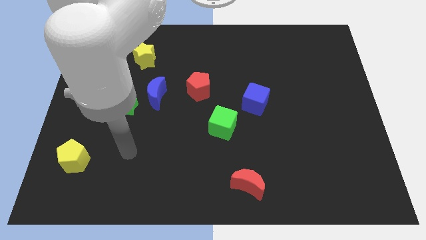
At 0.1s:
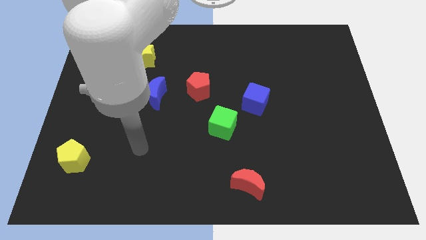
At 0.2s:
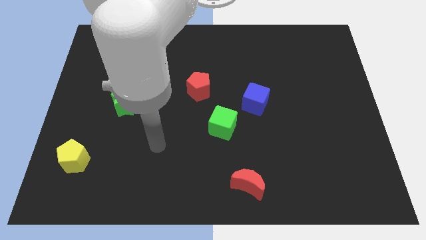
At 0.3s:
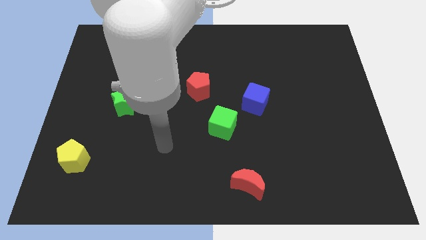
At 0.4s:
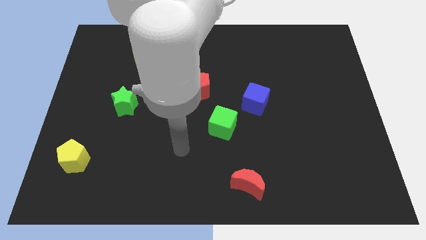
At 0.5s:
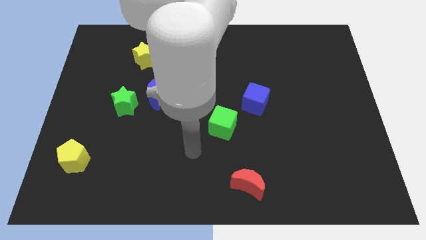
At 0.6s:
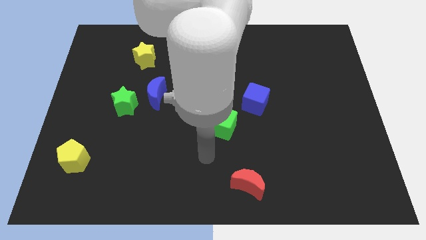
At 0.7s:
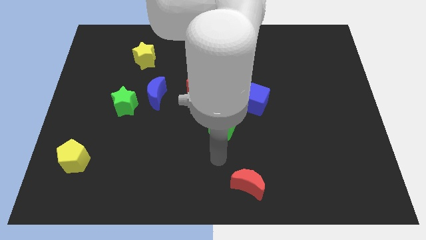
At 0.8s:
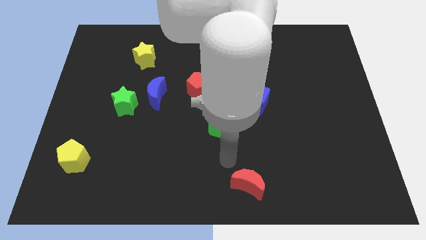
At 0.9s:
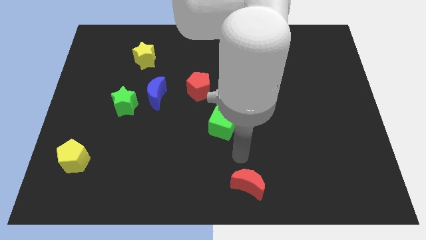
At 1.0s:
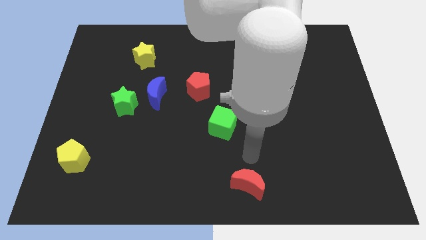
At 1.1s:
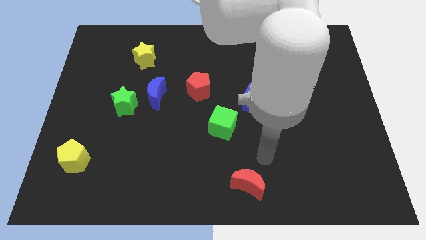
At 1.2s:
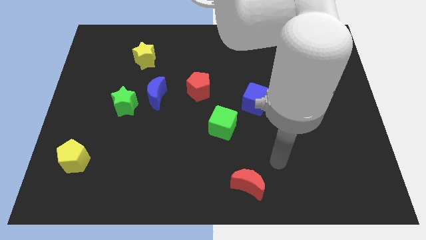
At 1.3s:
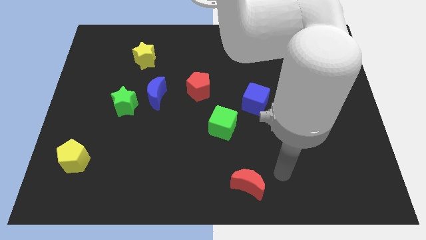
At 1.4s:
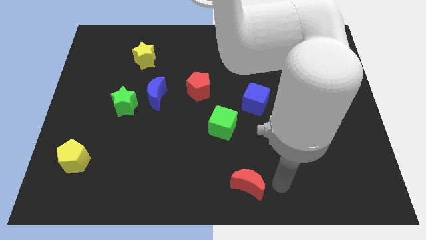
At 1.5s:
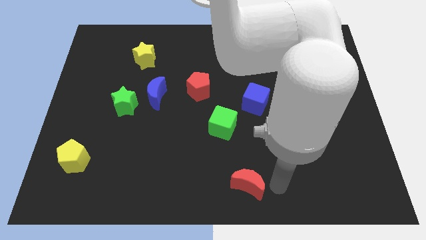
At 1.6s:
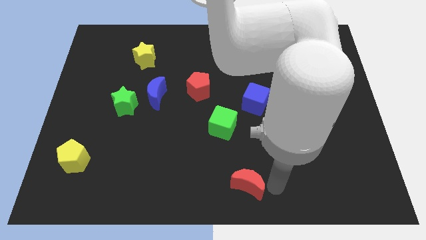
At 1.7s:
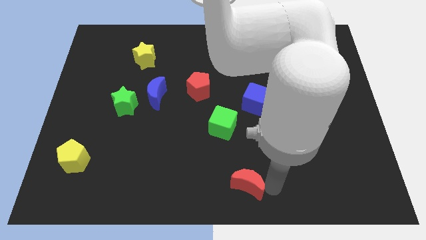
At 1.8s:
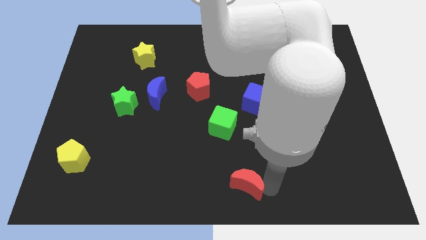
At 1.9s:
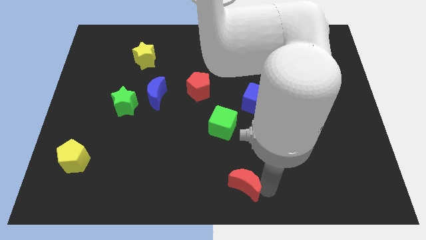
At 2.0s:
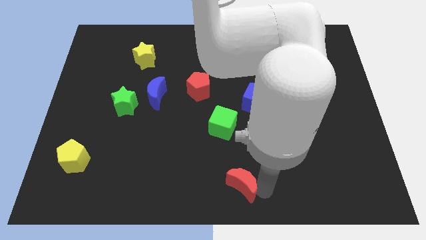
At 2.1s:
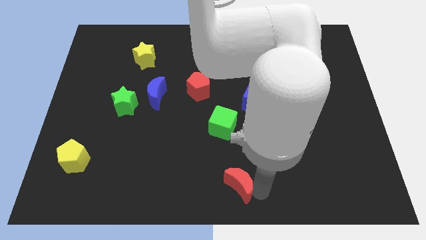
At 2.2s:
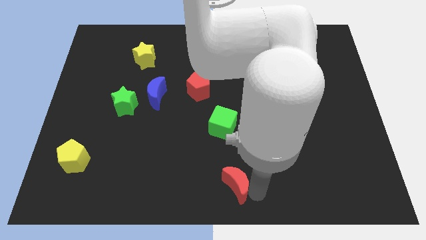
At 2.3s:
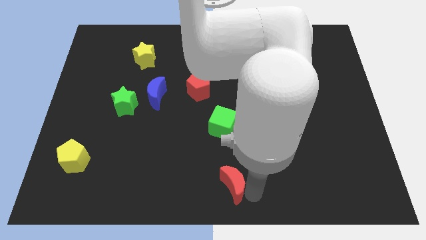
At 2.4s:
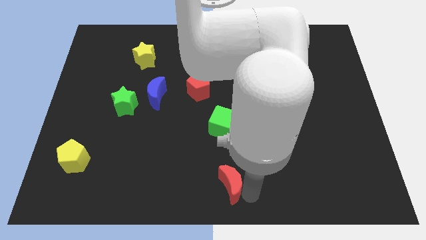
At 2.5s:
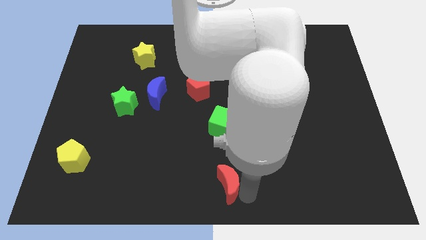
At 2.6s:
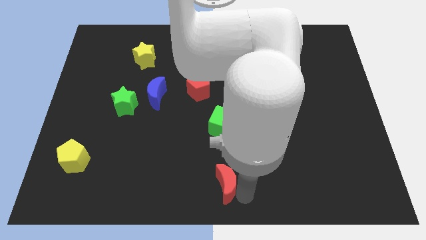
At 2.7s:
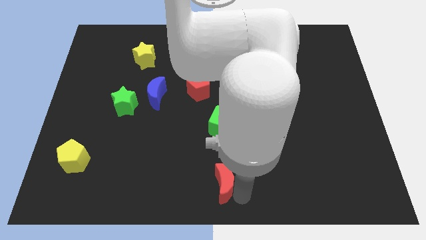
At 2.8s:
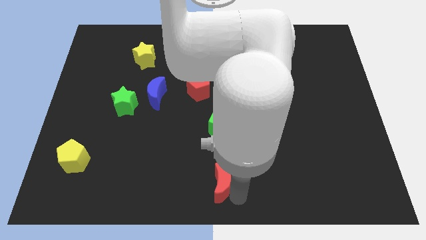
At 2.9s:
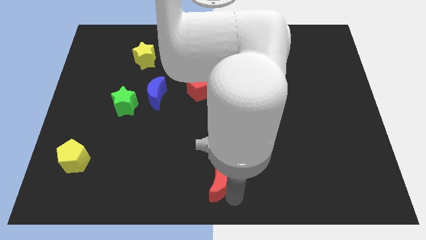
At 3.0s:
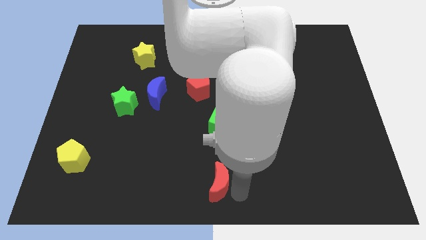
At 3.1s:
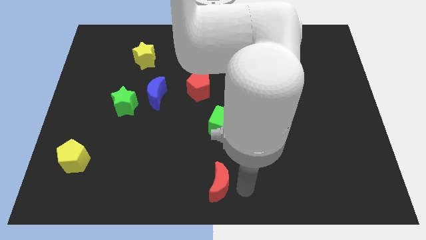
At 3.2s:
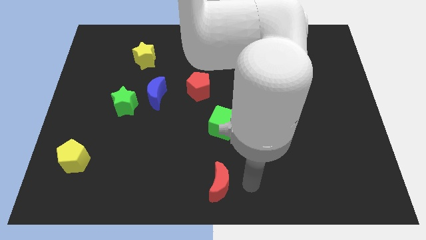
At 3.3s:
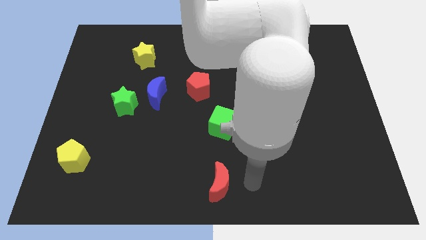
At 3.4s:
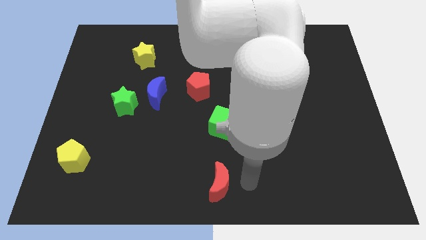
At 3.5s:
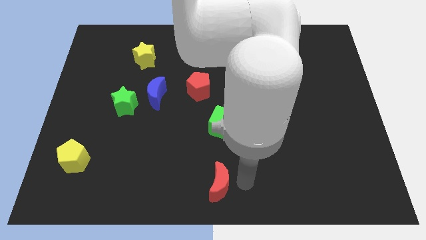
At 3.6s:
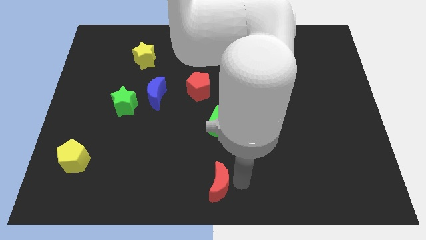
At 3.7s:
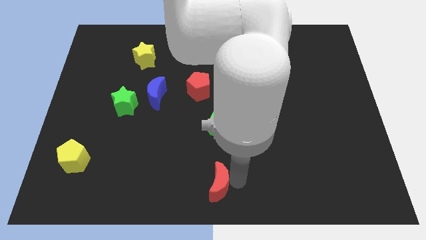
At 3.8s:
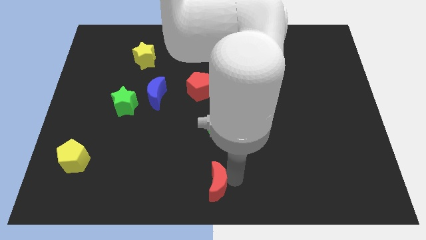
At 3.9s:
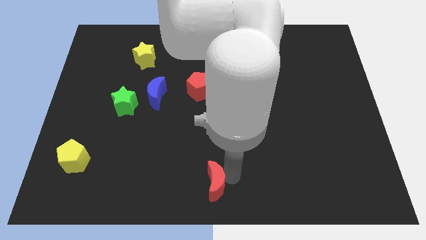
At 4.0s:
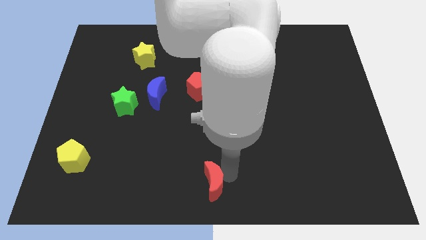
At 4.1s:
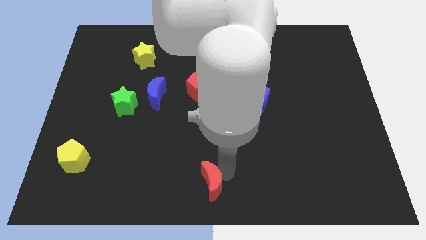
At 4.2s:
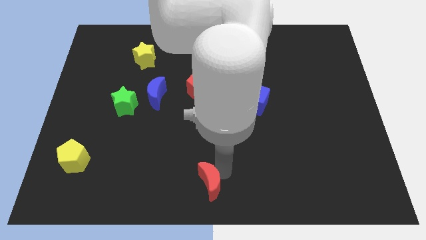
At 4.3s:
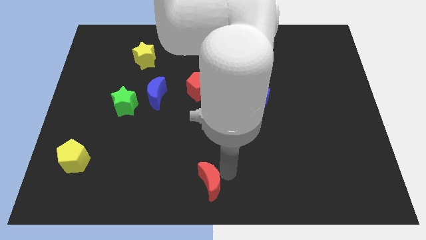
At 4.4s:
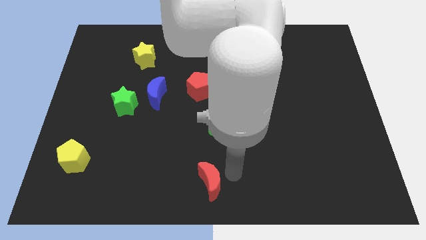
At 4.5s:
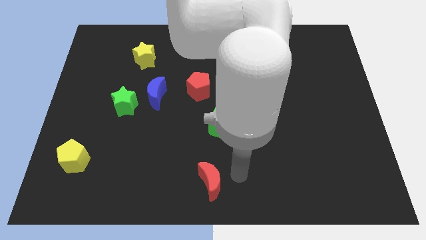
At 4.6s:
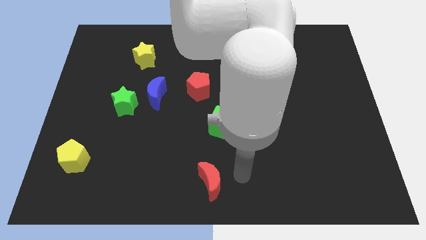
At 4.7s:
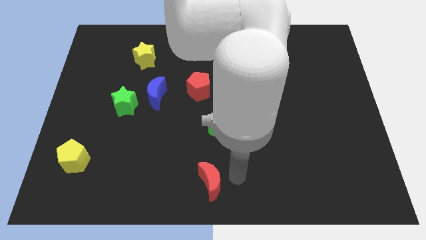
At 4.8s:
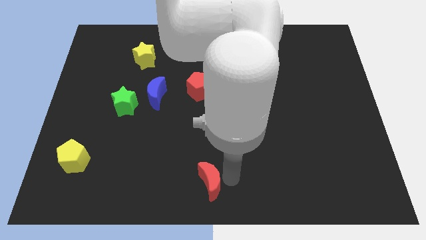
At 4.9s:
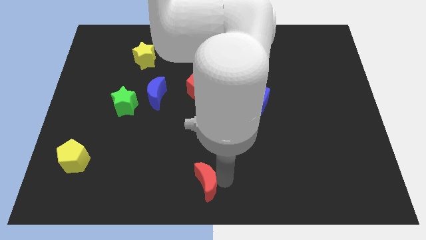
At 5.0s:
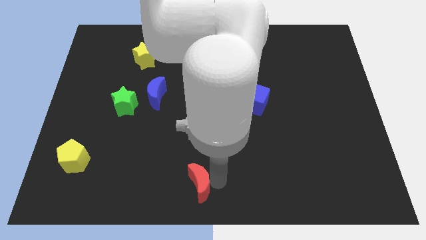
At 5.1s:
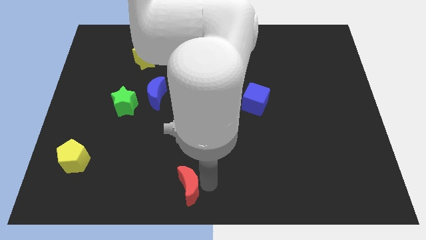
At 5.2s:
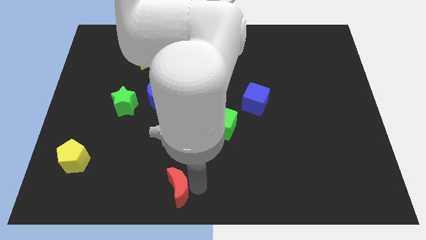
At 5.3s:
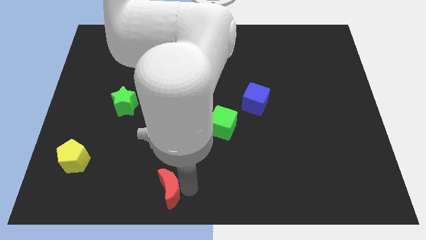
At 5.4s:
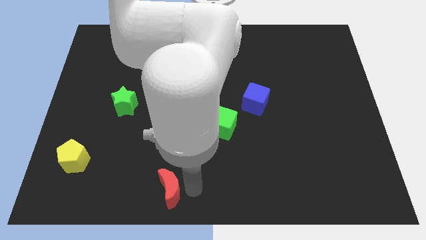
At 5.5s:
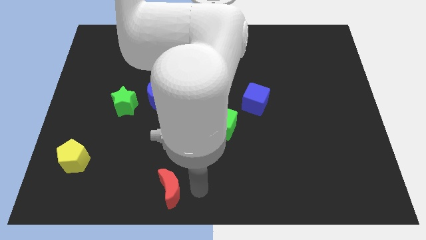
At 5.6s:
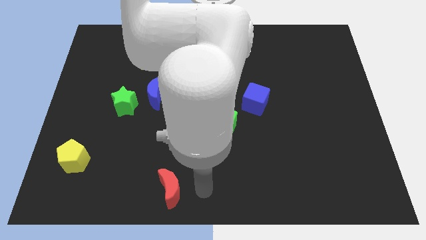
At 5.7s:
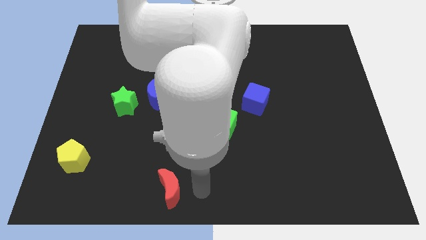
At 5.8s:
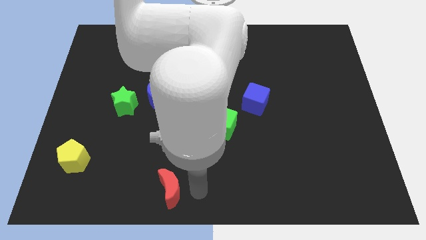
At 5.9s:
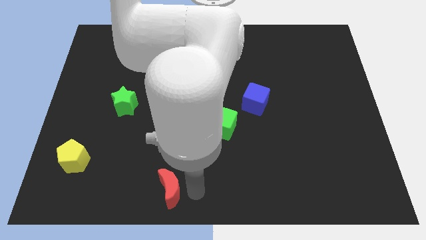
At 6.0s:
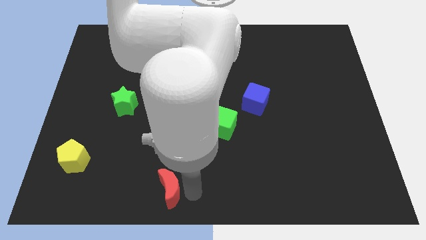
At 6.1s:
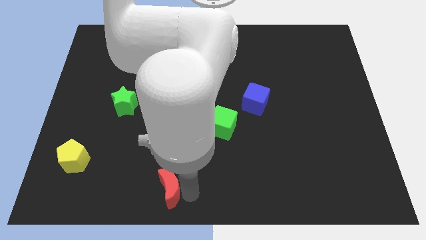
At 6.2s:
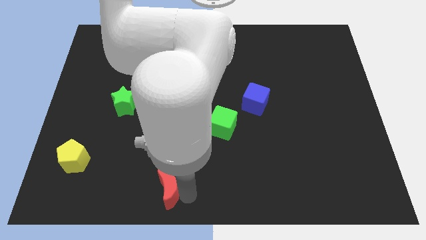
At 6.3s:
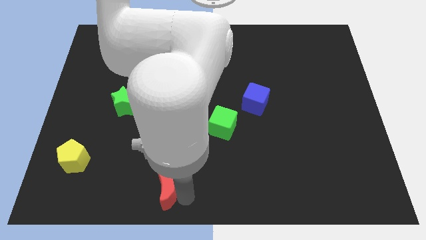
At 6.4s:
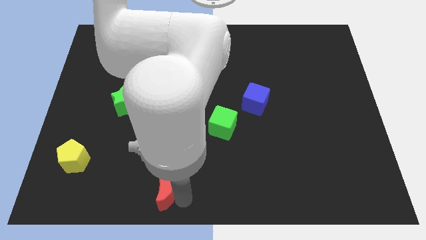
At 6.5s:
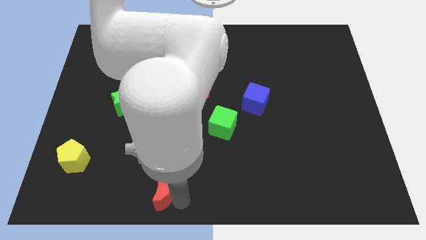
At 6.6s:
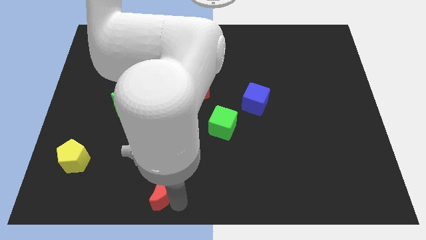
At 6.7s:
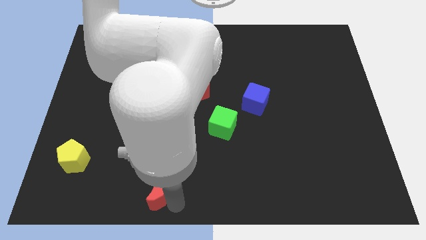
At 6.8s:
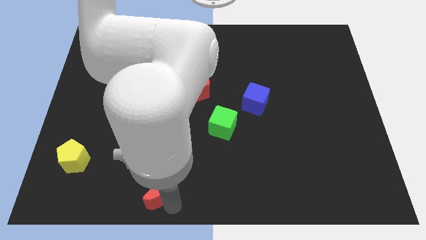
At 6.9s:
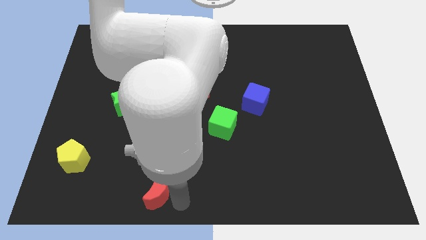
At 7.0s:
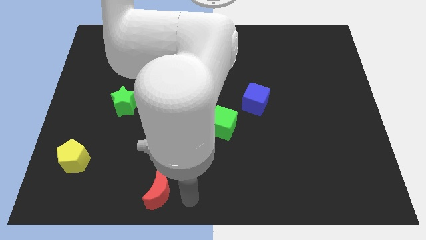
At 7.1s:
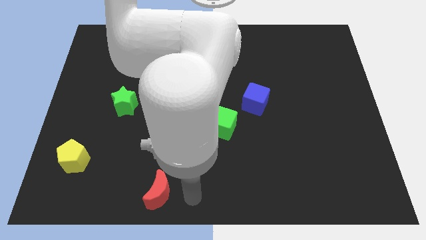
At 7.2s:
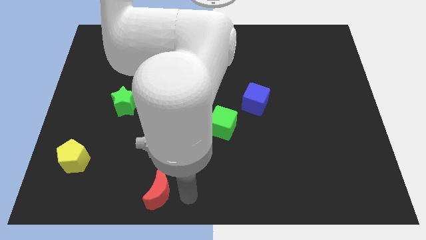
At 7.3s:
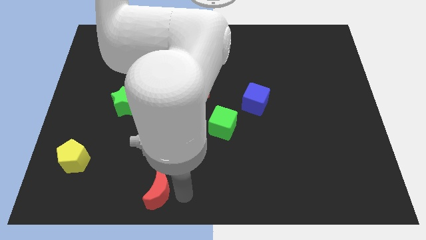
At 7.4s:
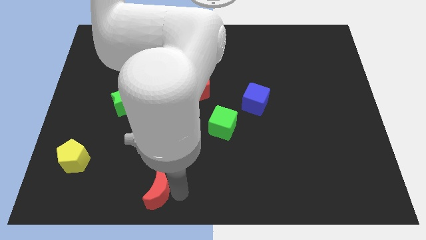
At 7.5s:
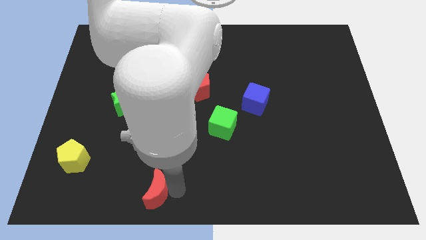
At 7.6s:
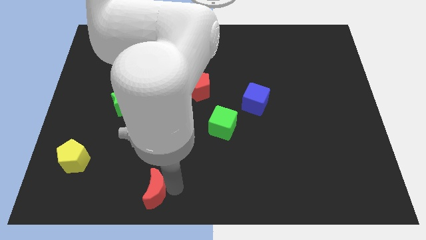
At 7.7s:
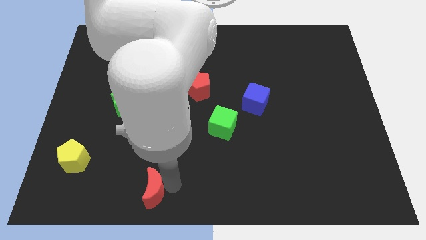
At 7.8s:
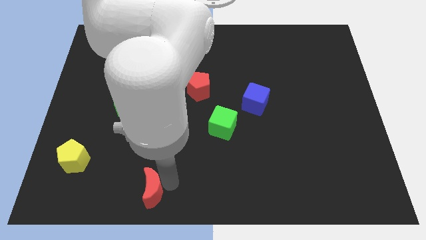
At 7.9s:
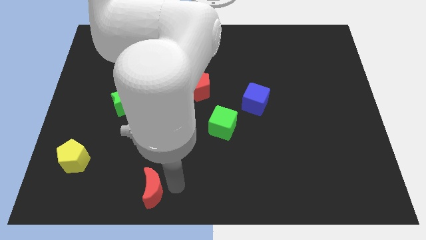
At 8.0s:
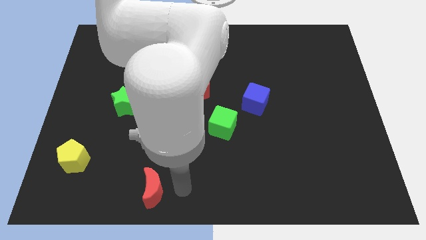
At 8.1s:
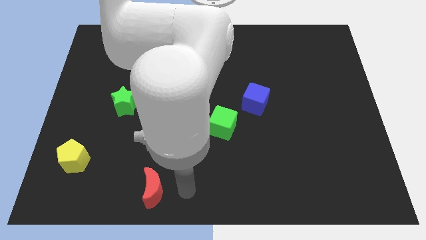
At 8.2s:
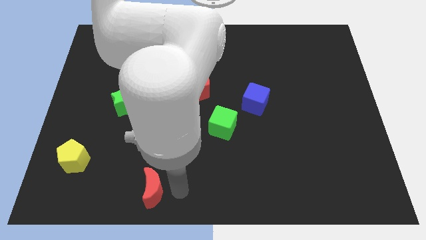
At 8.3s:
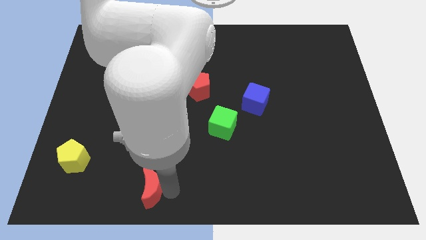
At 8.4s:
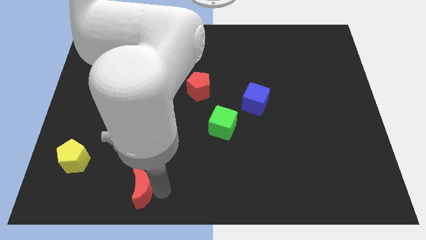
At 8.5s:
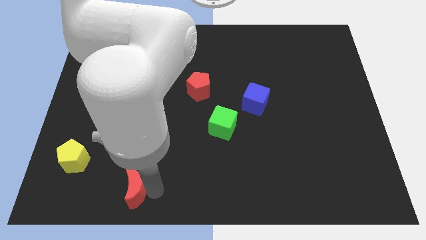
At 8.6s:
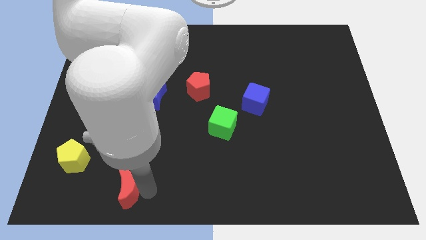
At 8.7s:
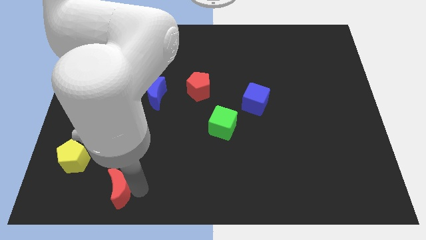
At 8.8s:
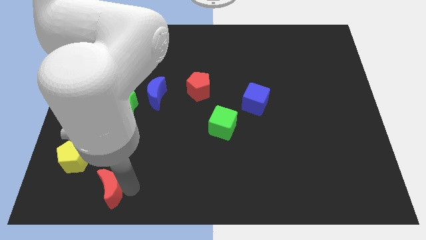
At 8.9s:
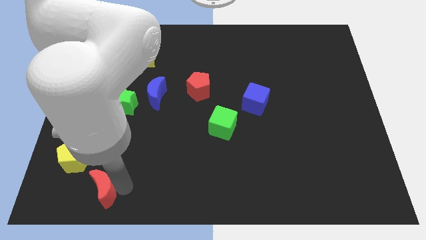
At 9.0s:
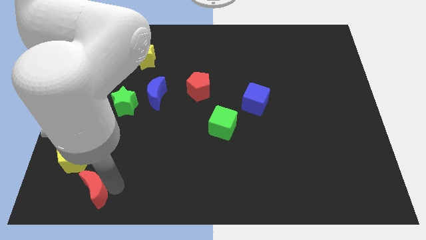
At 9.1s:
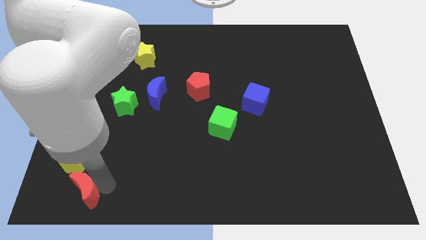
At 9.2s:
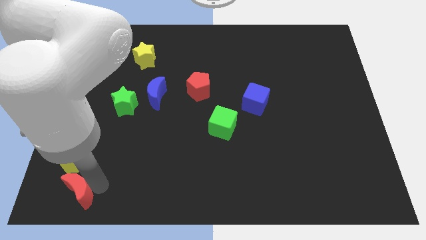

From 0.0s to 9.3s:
slide the red moon to the lower left corner
